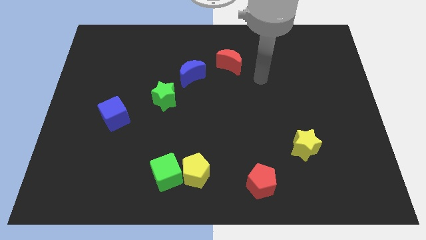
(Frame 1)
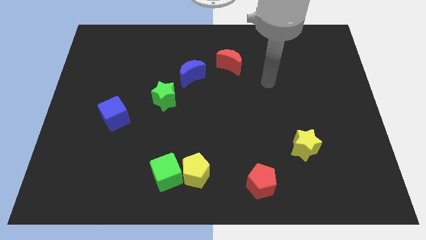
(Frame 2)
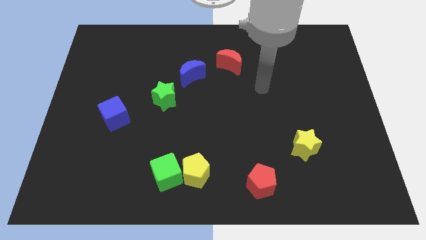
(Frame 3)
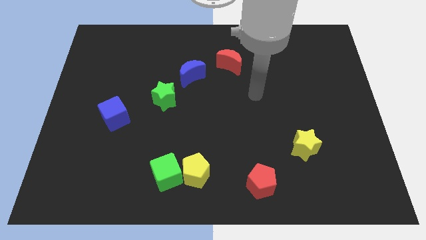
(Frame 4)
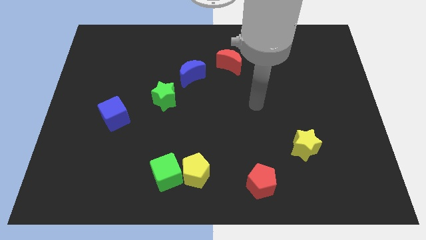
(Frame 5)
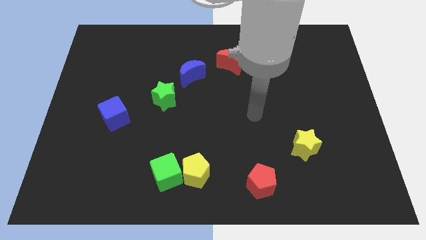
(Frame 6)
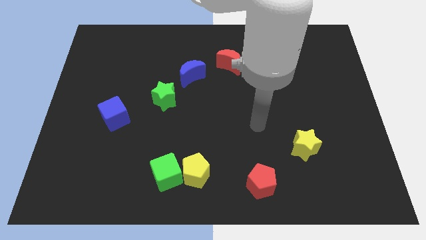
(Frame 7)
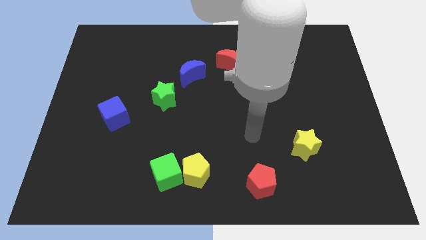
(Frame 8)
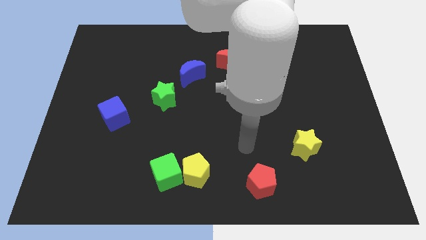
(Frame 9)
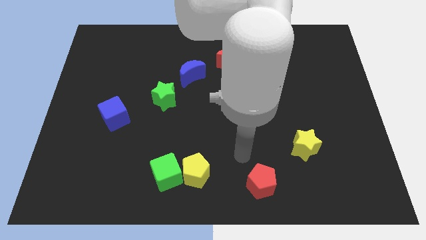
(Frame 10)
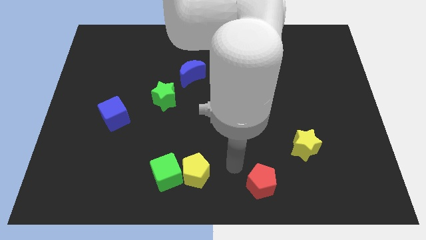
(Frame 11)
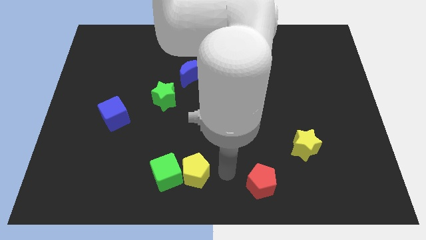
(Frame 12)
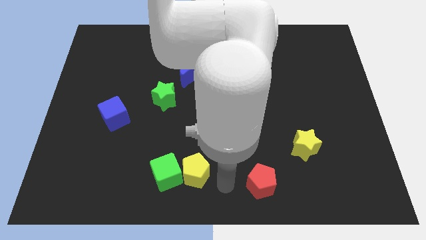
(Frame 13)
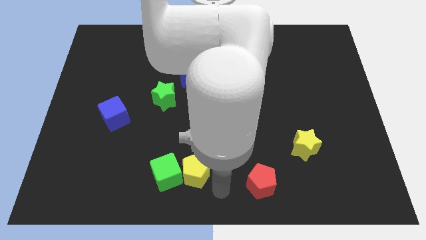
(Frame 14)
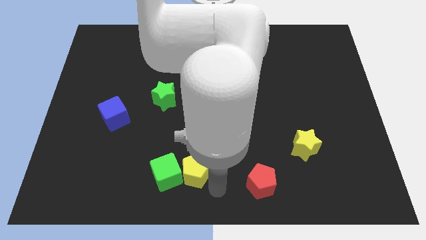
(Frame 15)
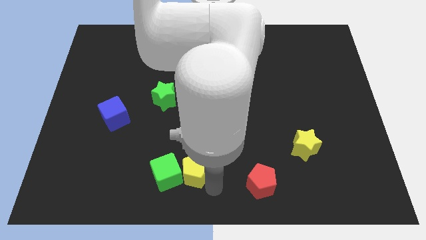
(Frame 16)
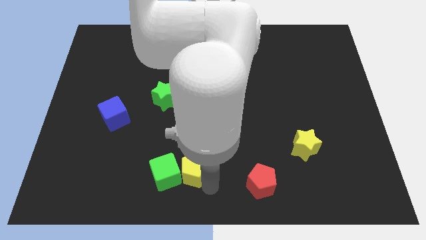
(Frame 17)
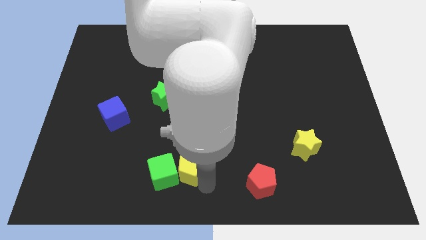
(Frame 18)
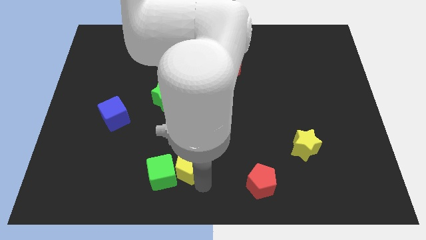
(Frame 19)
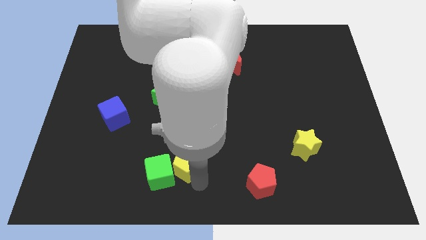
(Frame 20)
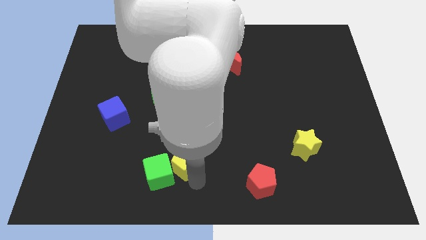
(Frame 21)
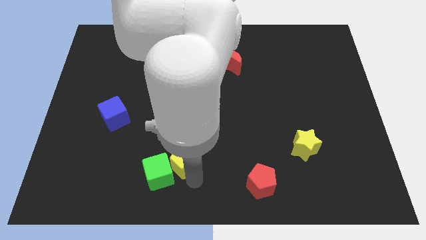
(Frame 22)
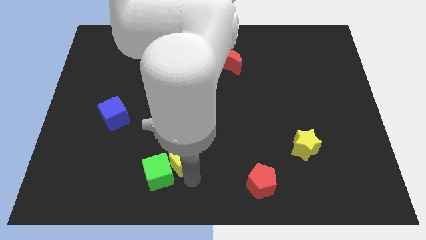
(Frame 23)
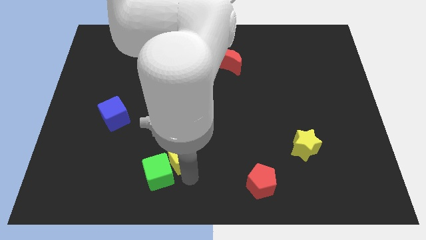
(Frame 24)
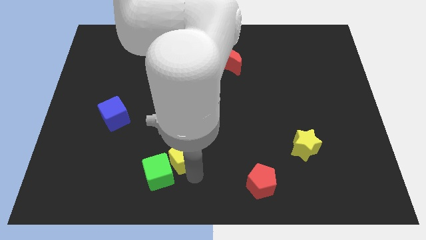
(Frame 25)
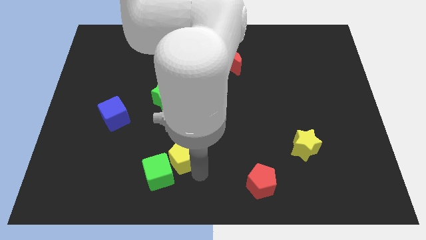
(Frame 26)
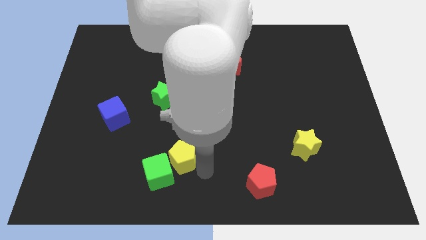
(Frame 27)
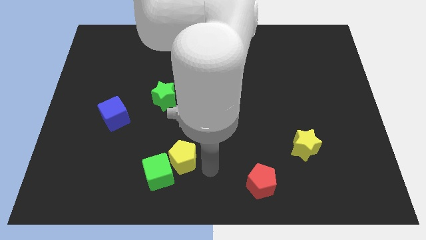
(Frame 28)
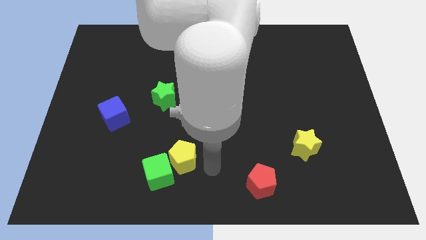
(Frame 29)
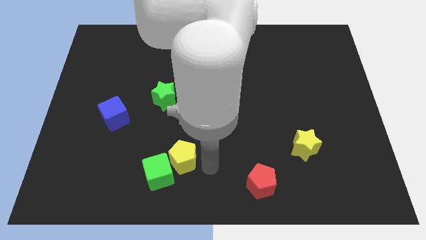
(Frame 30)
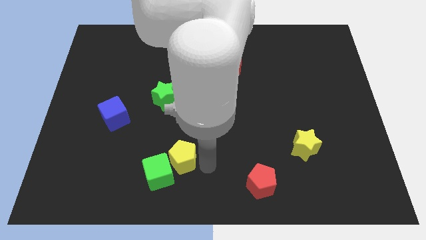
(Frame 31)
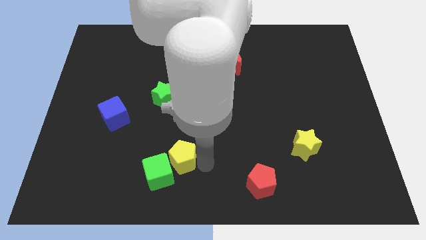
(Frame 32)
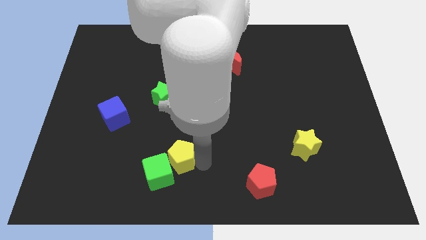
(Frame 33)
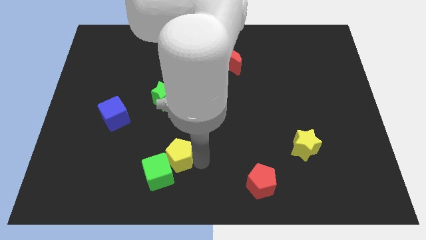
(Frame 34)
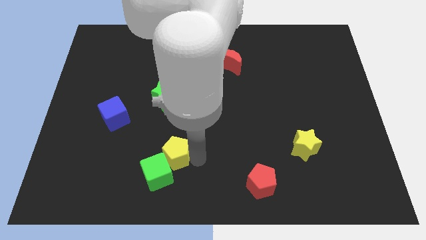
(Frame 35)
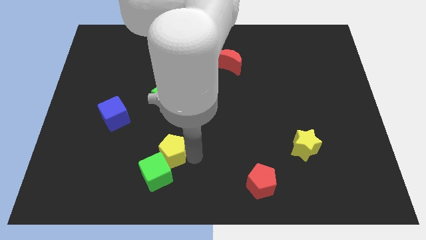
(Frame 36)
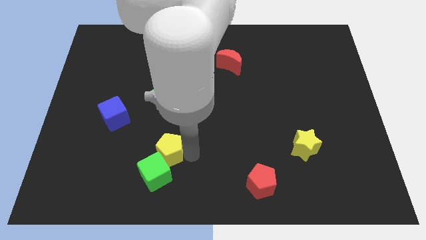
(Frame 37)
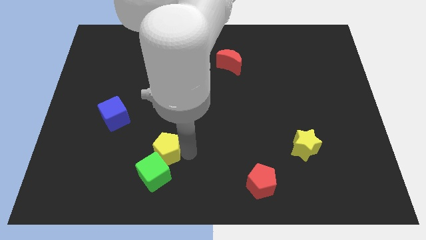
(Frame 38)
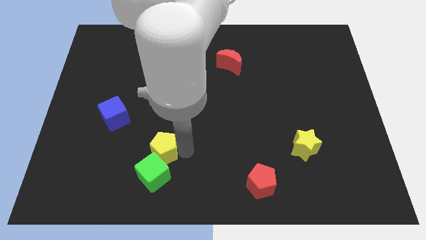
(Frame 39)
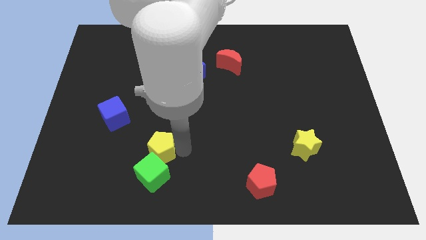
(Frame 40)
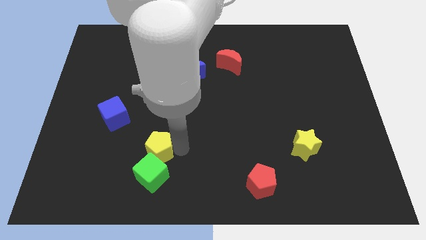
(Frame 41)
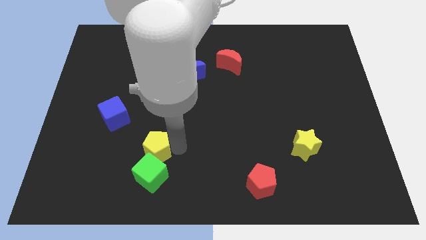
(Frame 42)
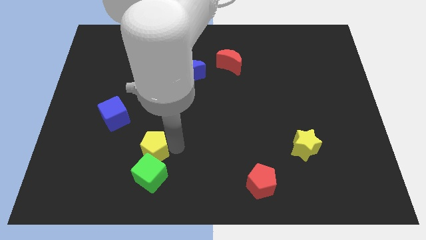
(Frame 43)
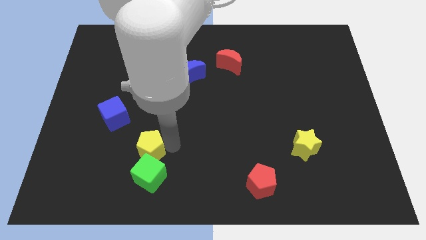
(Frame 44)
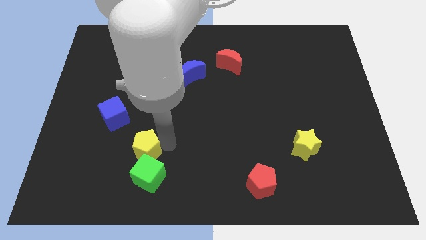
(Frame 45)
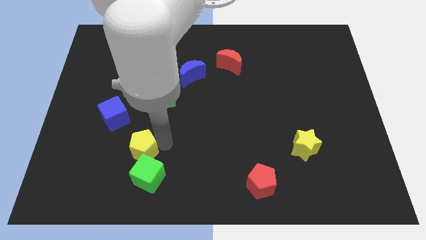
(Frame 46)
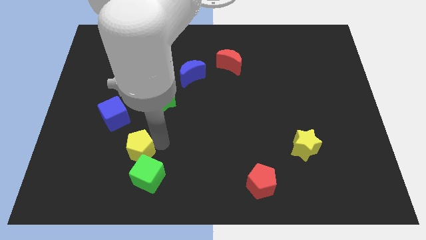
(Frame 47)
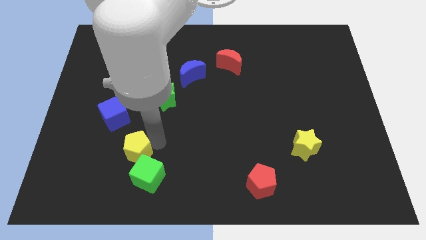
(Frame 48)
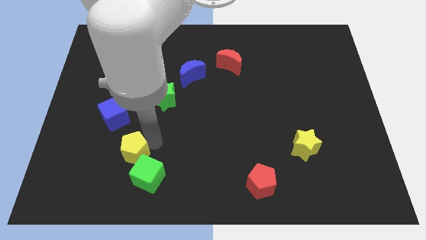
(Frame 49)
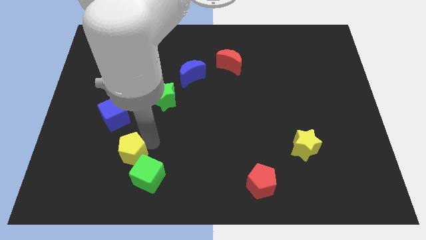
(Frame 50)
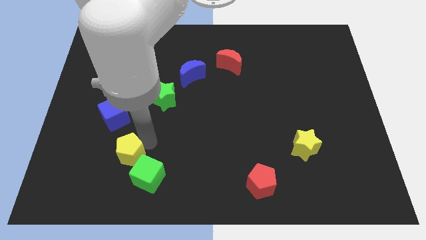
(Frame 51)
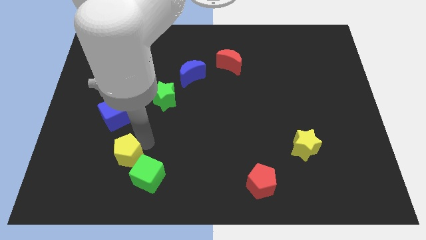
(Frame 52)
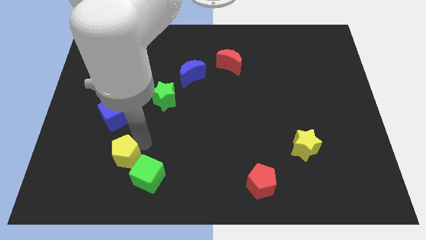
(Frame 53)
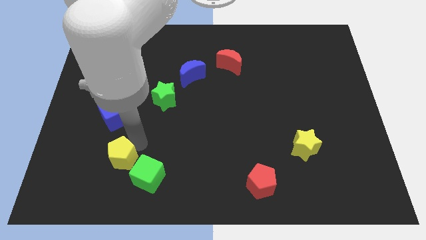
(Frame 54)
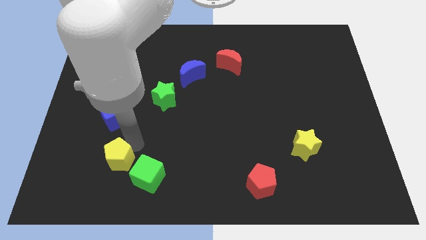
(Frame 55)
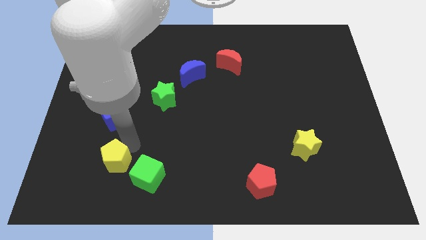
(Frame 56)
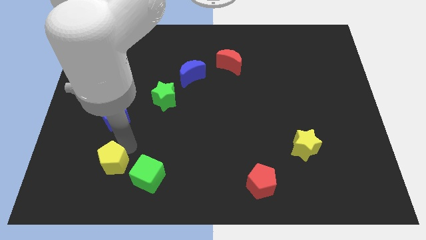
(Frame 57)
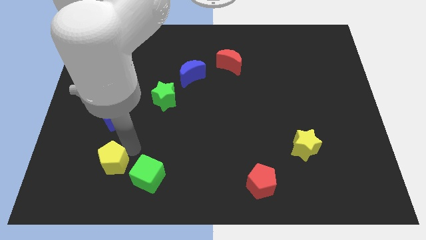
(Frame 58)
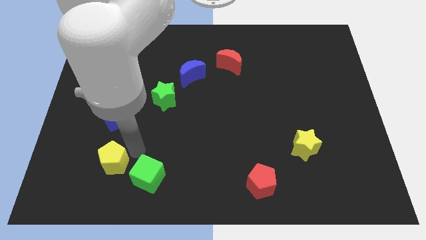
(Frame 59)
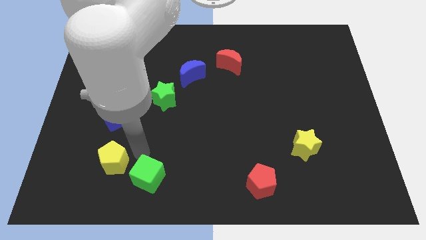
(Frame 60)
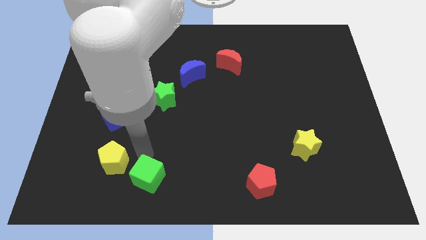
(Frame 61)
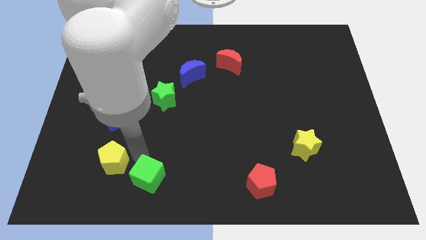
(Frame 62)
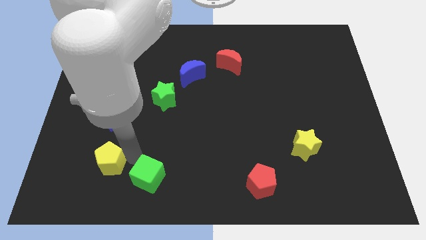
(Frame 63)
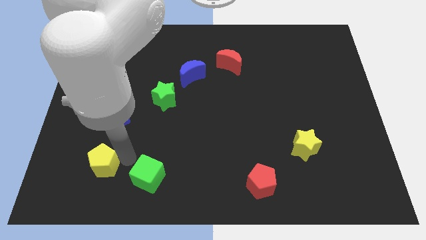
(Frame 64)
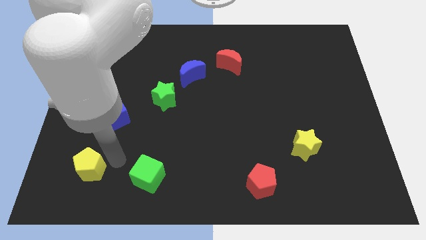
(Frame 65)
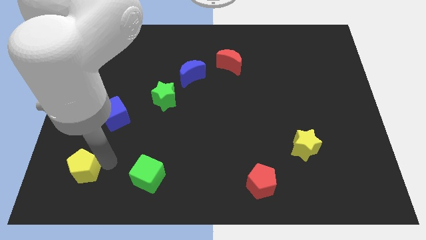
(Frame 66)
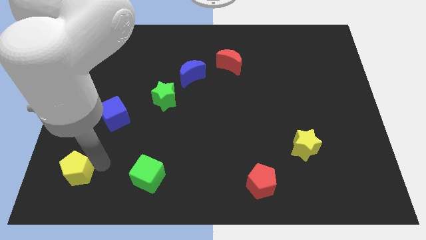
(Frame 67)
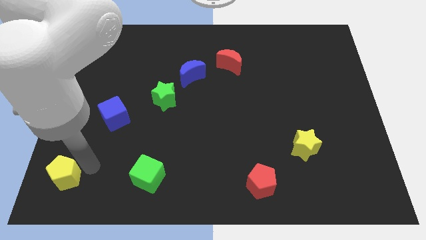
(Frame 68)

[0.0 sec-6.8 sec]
put the yellow pentagon to the bottom left

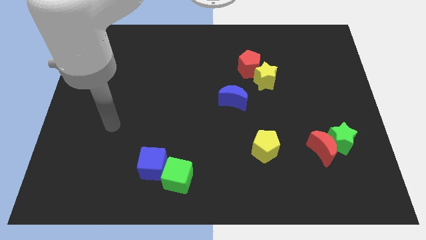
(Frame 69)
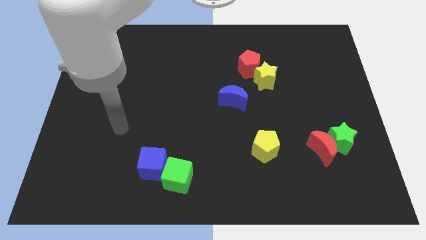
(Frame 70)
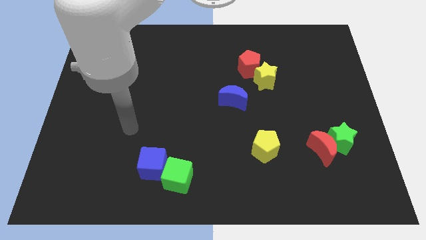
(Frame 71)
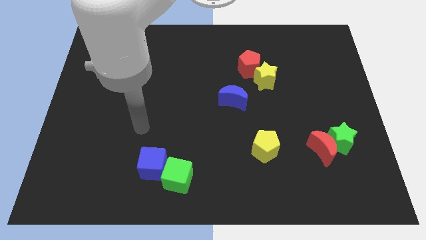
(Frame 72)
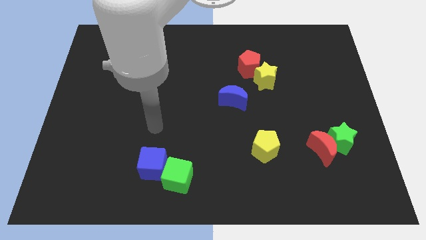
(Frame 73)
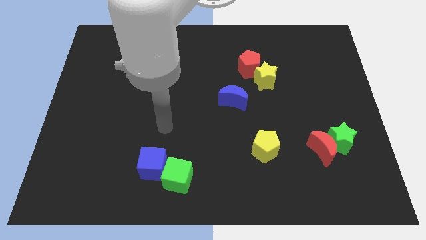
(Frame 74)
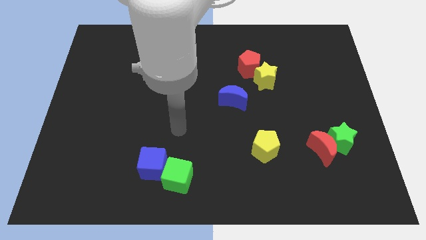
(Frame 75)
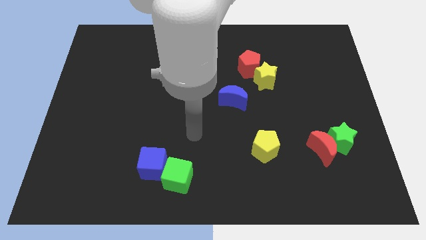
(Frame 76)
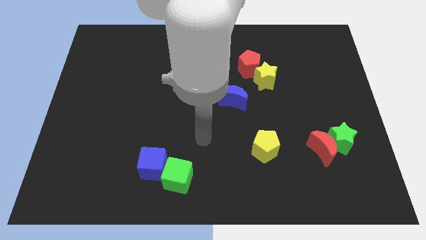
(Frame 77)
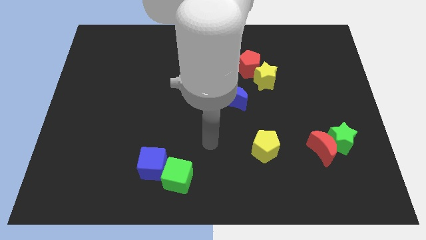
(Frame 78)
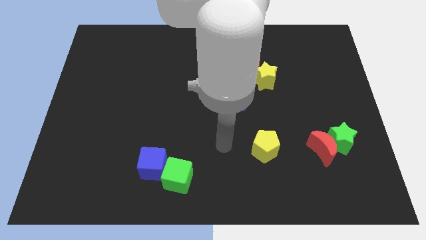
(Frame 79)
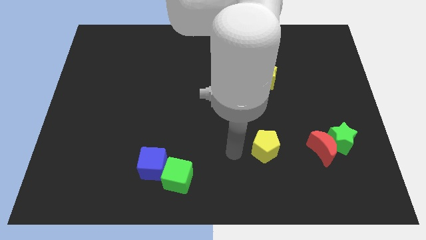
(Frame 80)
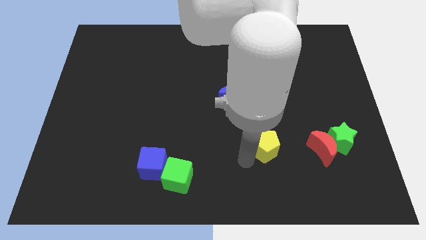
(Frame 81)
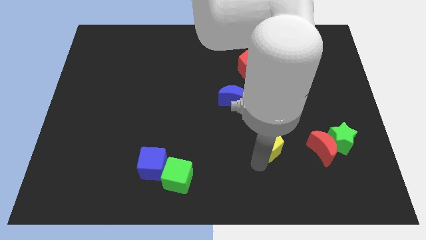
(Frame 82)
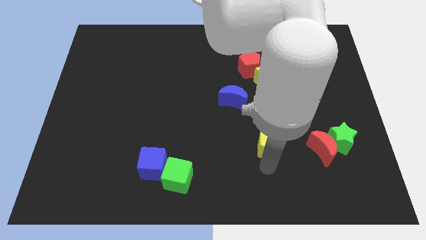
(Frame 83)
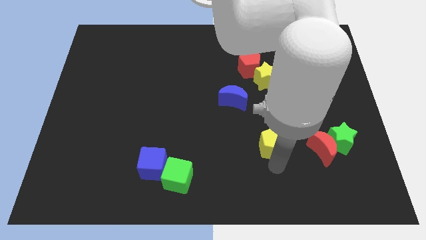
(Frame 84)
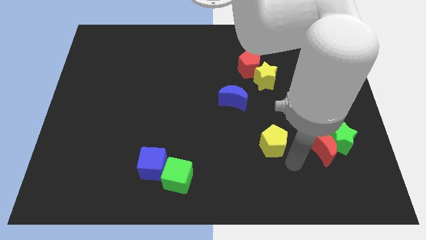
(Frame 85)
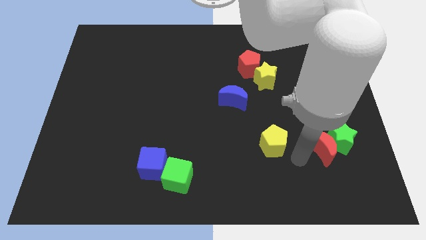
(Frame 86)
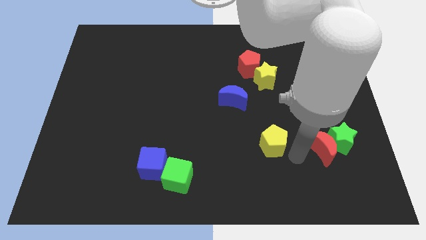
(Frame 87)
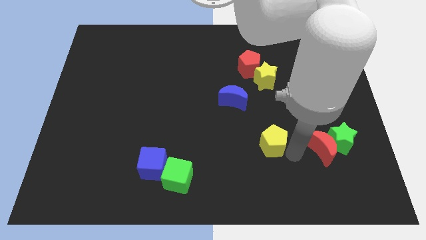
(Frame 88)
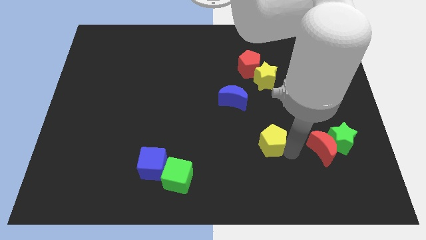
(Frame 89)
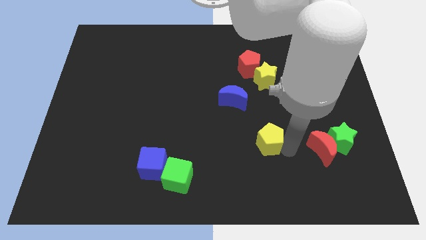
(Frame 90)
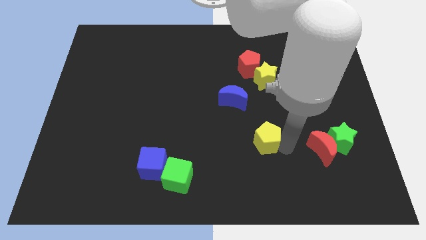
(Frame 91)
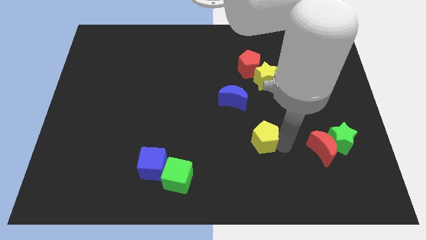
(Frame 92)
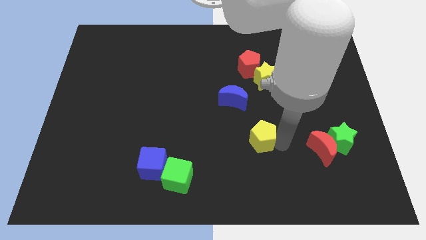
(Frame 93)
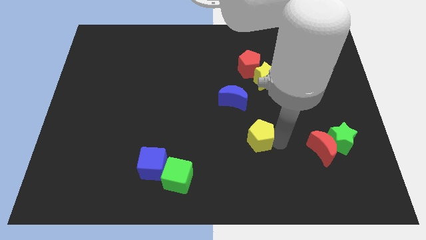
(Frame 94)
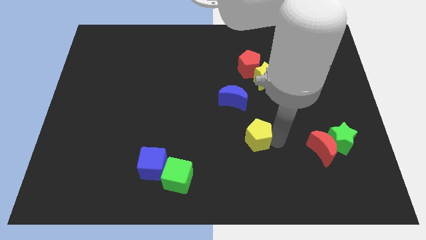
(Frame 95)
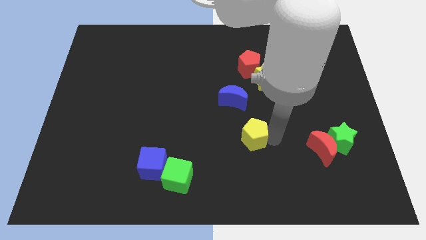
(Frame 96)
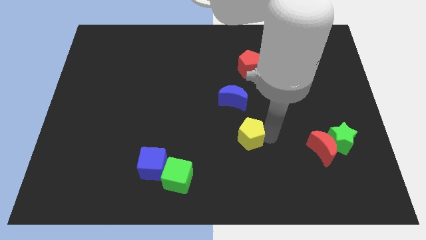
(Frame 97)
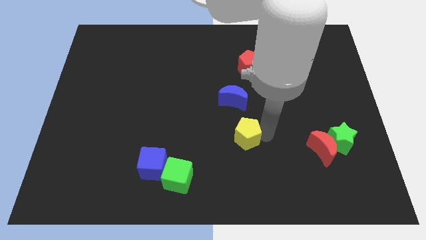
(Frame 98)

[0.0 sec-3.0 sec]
slide the yellow pentagon to the center of the board
